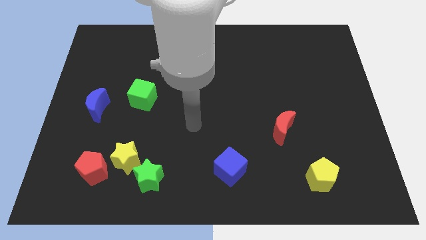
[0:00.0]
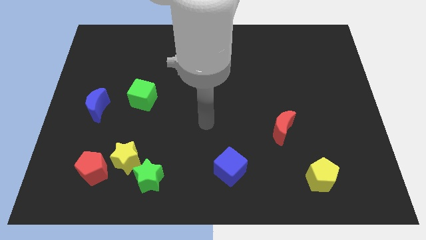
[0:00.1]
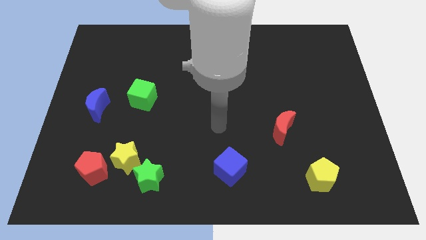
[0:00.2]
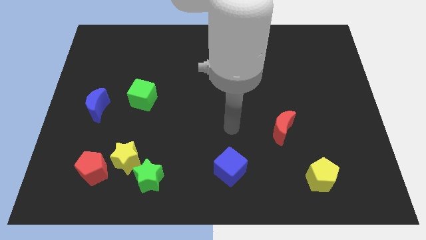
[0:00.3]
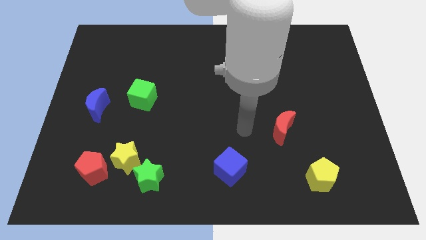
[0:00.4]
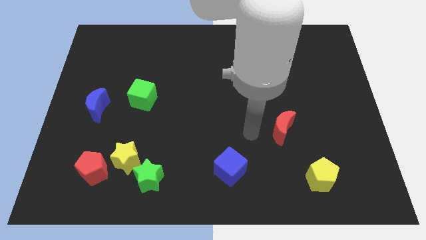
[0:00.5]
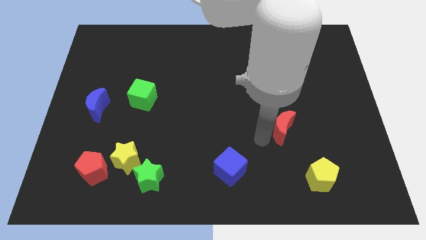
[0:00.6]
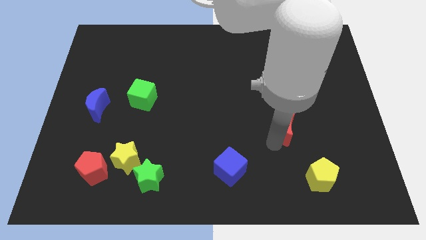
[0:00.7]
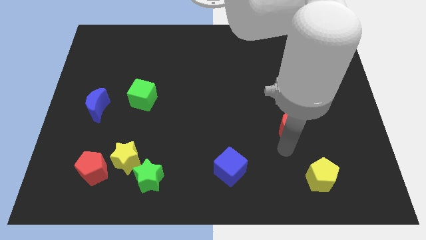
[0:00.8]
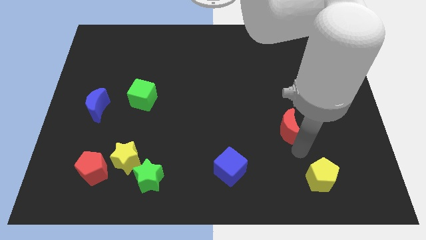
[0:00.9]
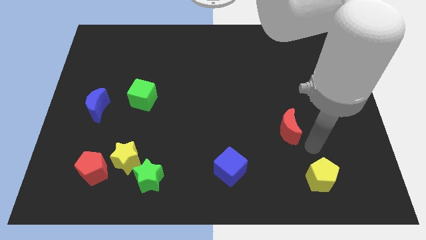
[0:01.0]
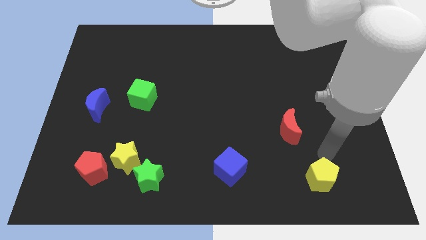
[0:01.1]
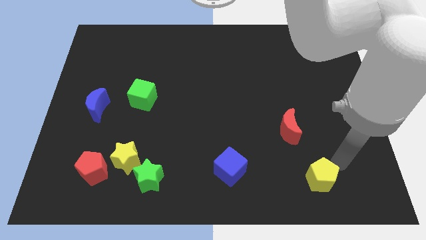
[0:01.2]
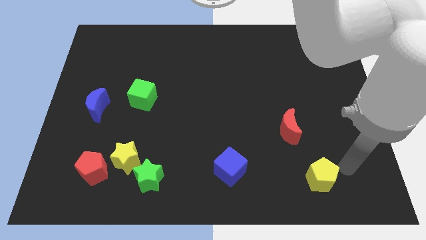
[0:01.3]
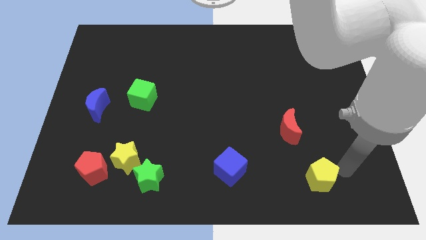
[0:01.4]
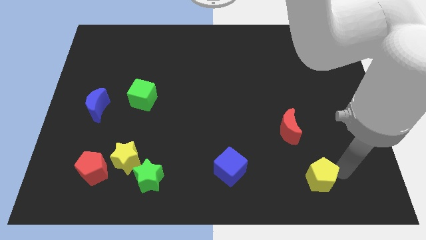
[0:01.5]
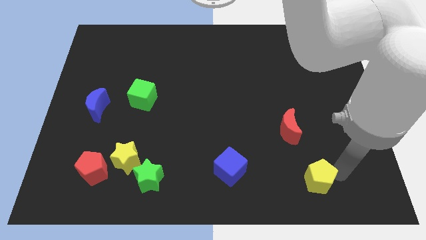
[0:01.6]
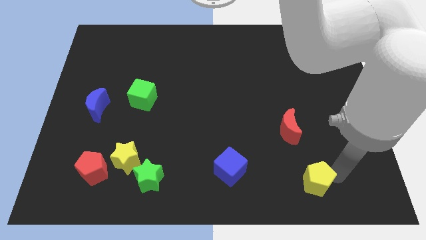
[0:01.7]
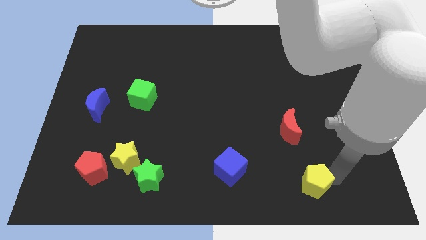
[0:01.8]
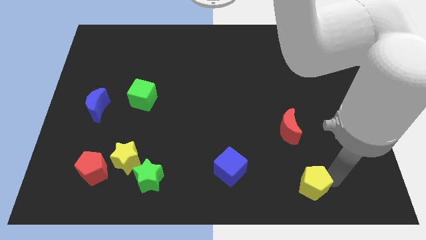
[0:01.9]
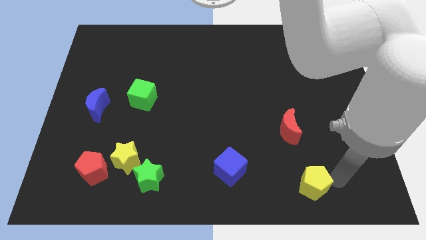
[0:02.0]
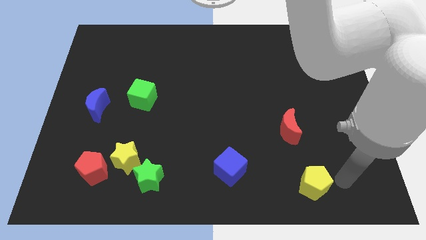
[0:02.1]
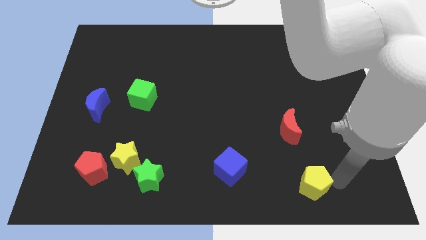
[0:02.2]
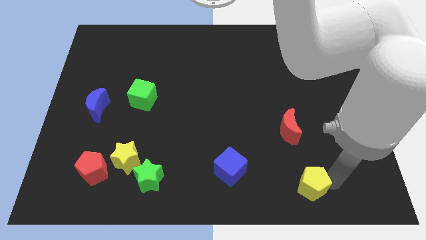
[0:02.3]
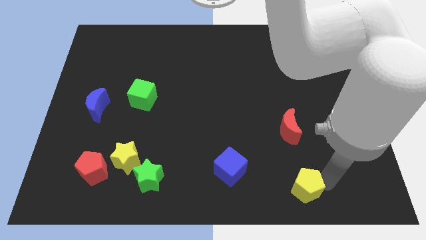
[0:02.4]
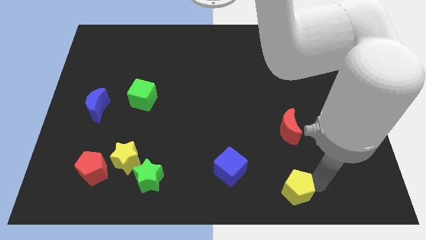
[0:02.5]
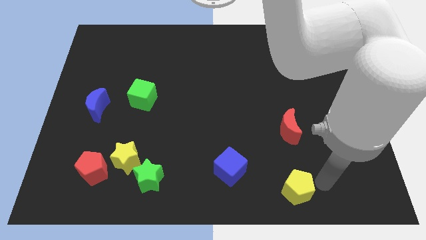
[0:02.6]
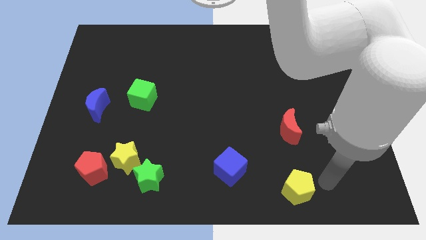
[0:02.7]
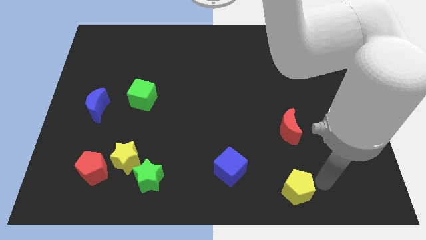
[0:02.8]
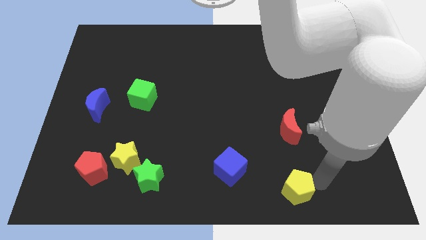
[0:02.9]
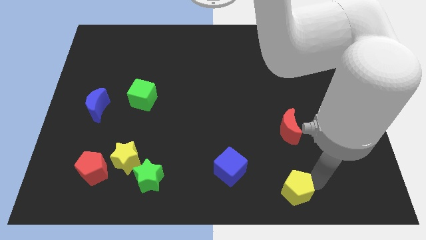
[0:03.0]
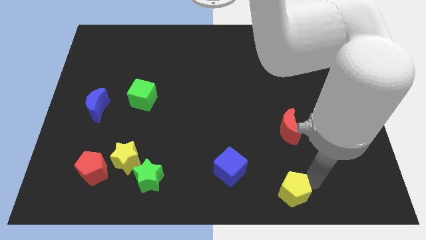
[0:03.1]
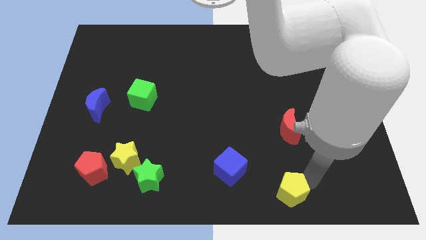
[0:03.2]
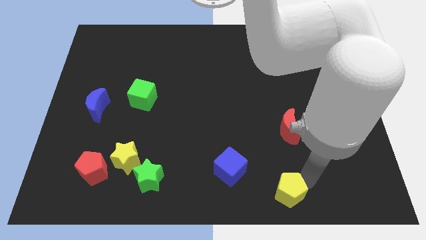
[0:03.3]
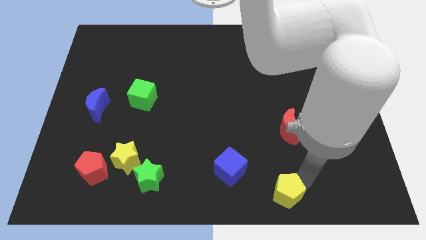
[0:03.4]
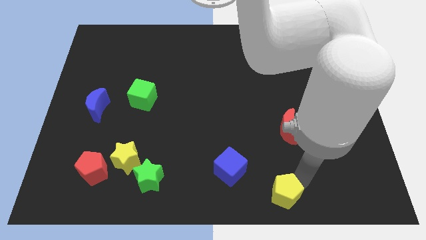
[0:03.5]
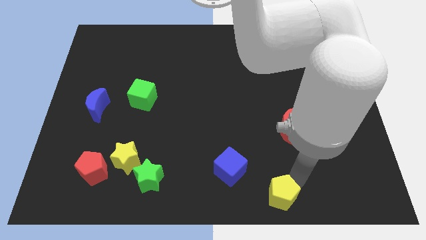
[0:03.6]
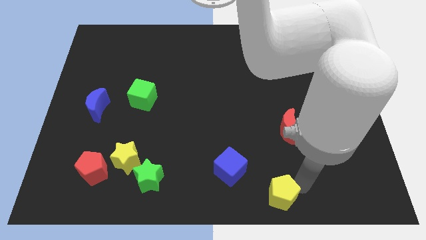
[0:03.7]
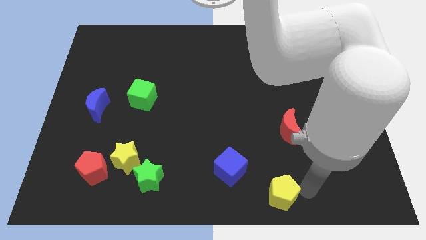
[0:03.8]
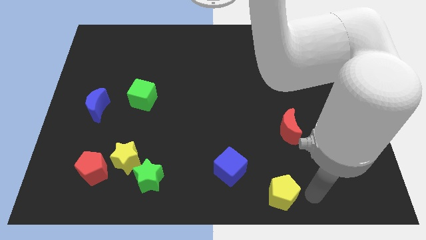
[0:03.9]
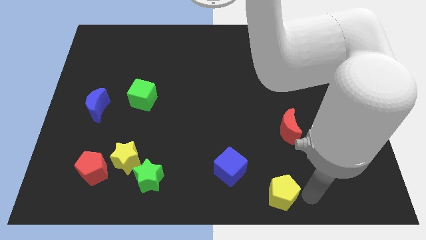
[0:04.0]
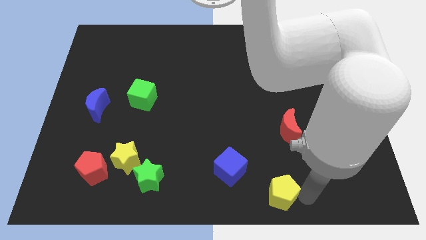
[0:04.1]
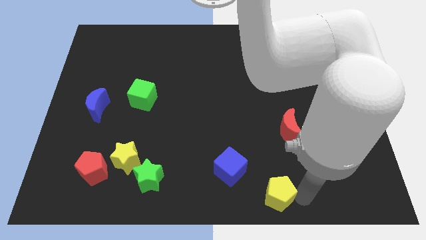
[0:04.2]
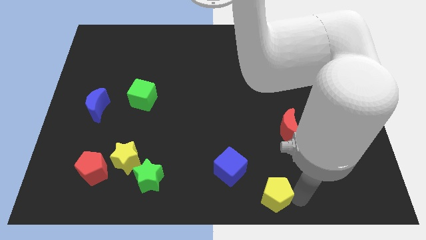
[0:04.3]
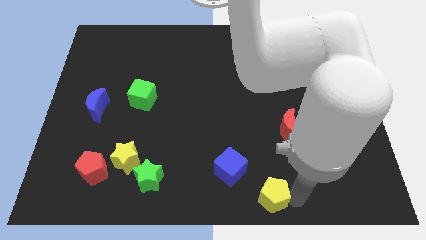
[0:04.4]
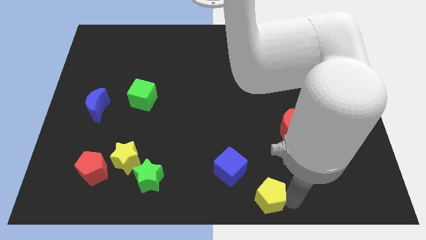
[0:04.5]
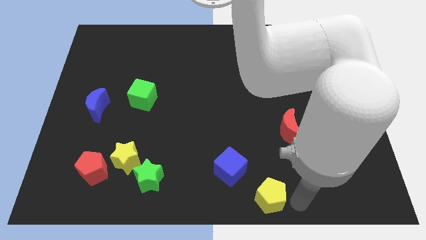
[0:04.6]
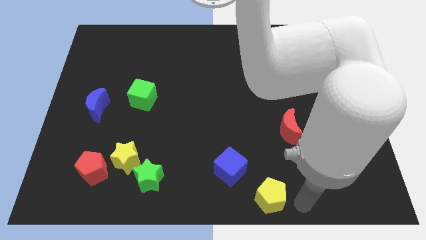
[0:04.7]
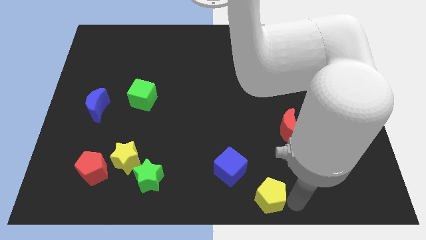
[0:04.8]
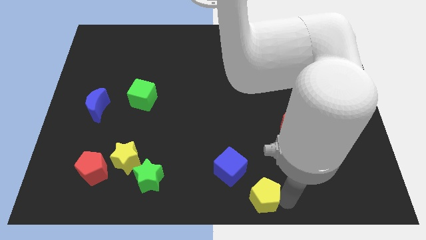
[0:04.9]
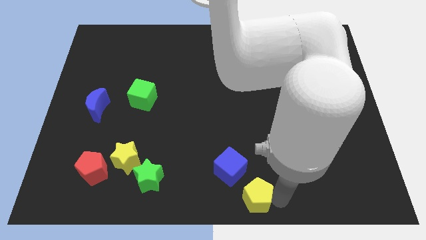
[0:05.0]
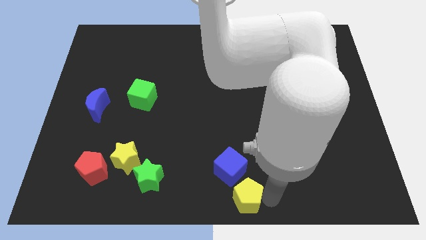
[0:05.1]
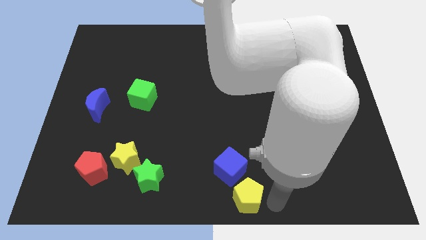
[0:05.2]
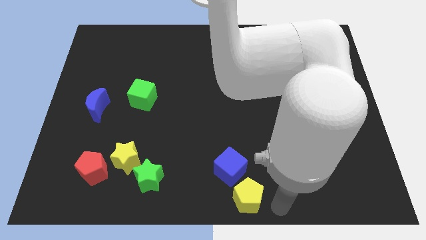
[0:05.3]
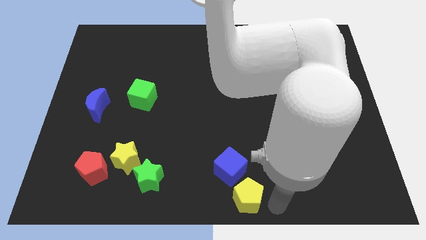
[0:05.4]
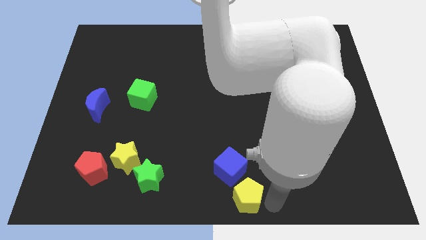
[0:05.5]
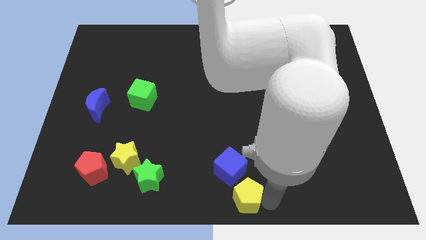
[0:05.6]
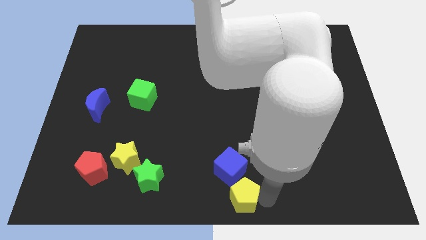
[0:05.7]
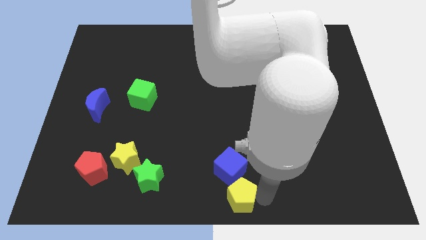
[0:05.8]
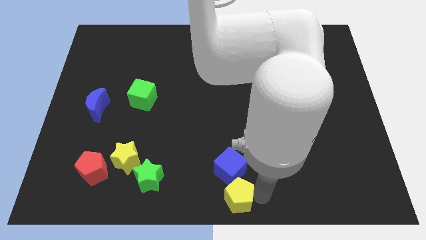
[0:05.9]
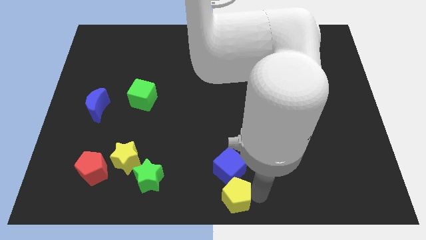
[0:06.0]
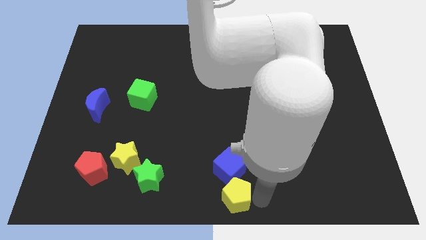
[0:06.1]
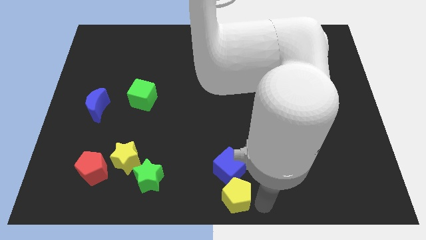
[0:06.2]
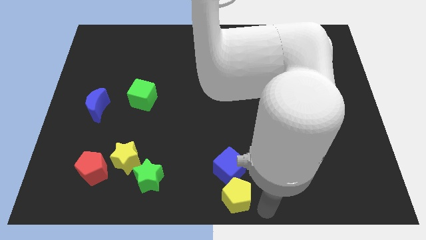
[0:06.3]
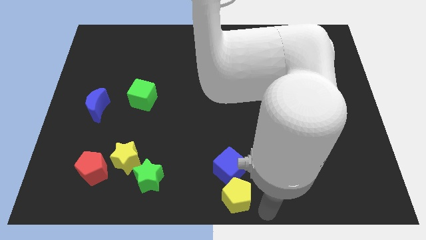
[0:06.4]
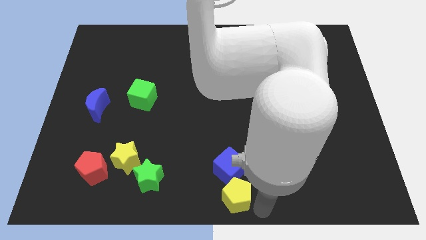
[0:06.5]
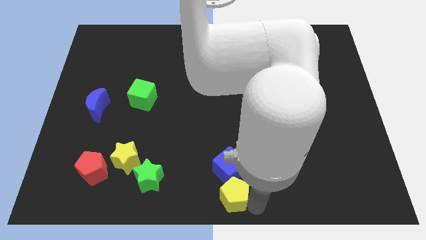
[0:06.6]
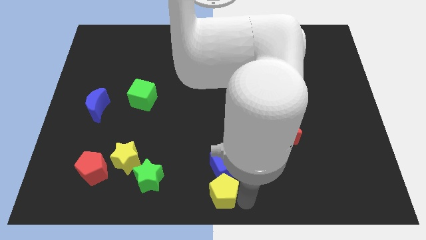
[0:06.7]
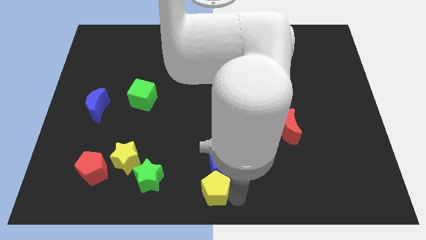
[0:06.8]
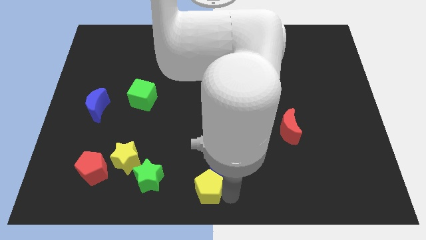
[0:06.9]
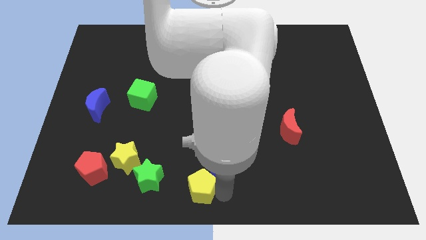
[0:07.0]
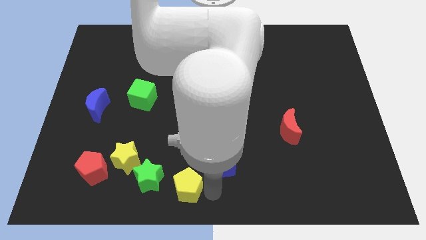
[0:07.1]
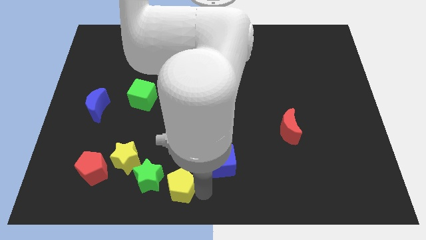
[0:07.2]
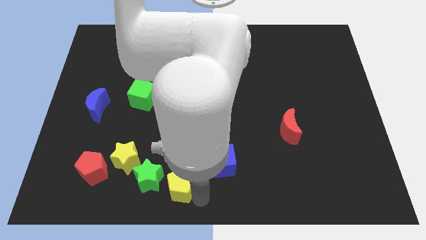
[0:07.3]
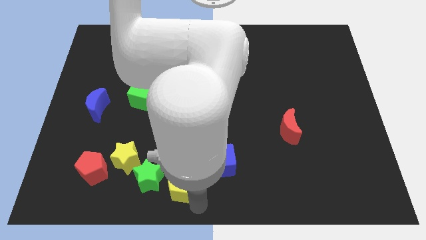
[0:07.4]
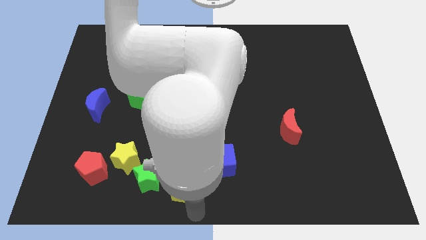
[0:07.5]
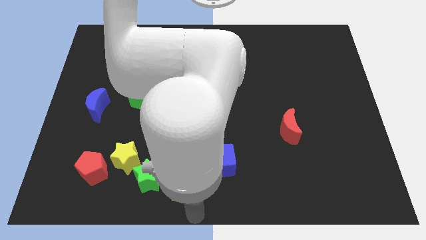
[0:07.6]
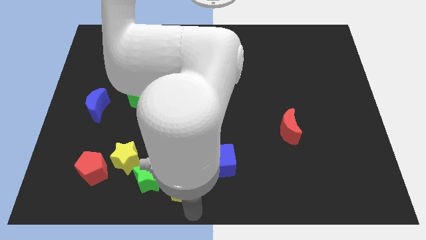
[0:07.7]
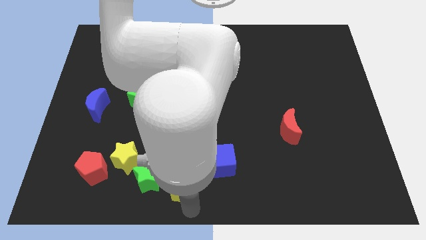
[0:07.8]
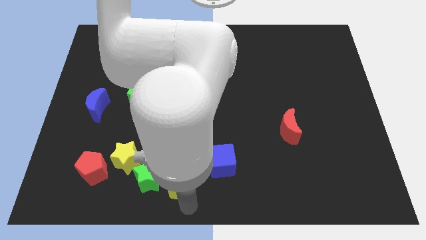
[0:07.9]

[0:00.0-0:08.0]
put the yellow pentagon just left of the blue cube
